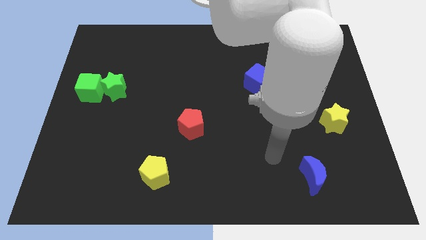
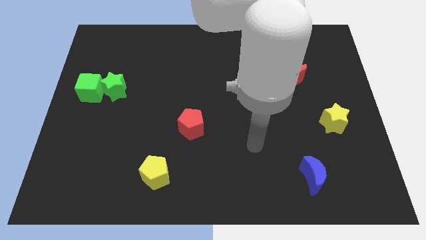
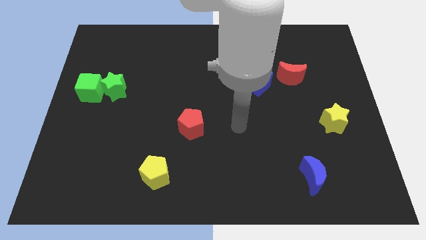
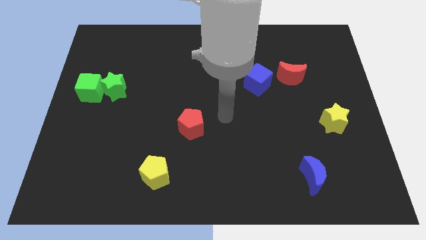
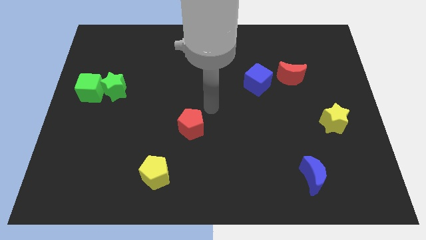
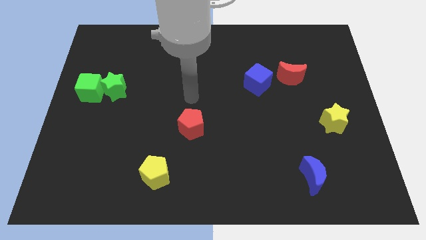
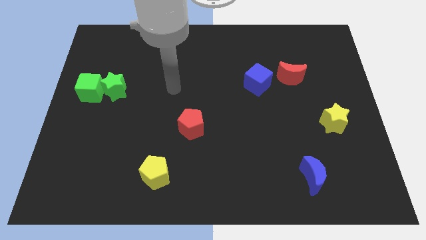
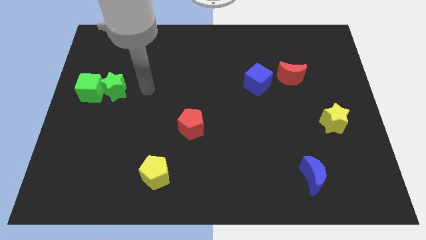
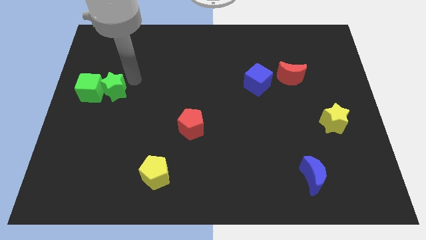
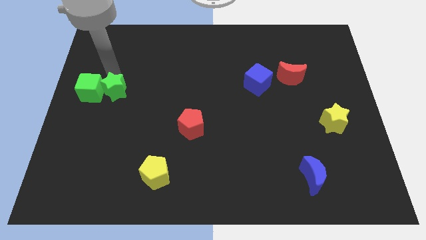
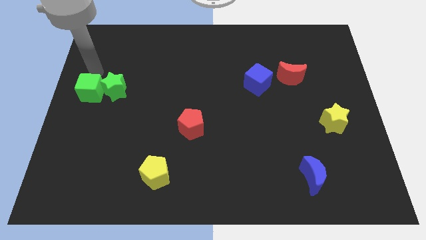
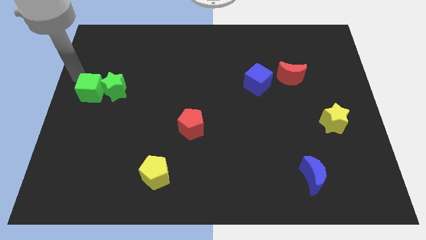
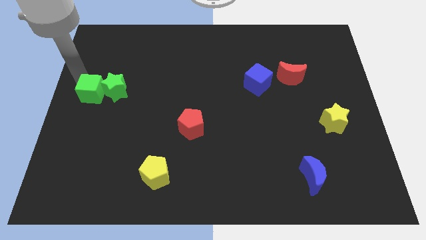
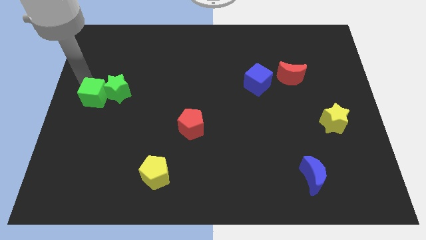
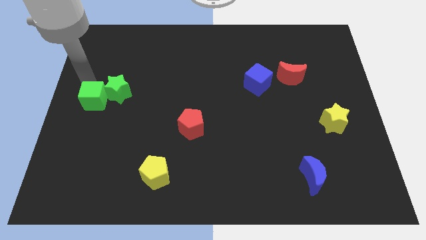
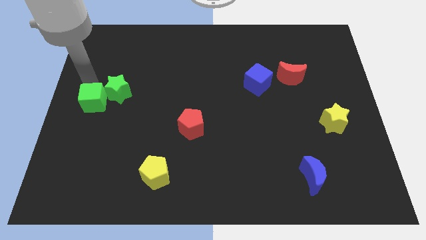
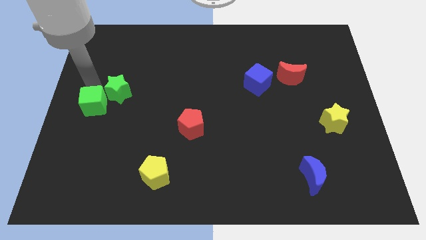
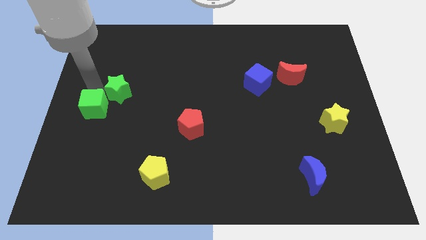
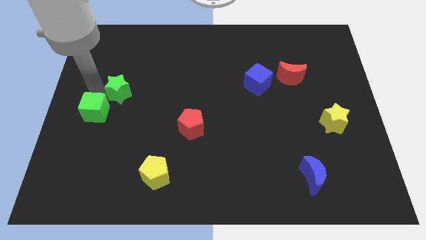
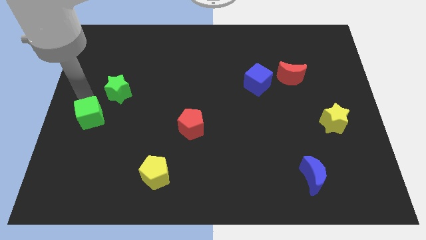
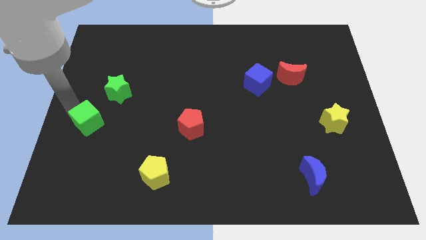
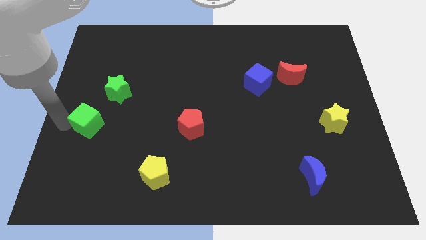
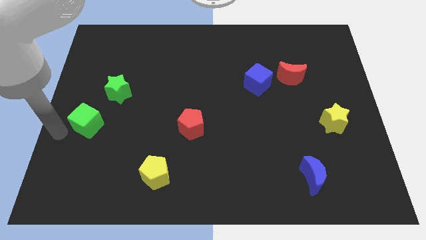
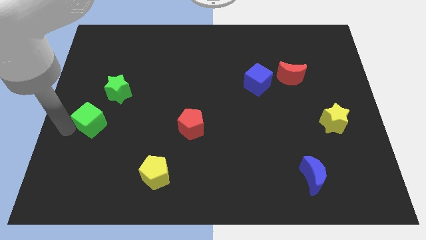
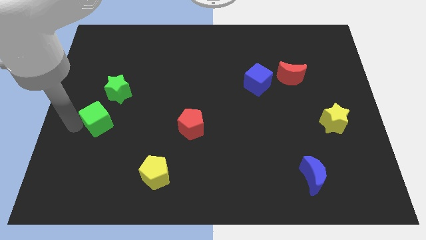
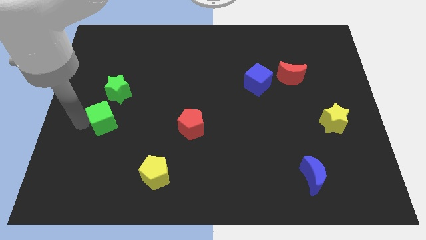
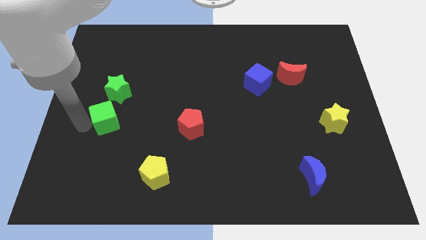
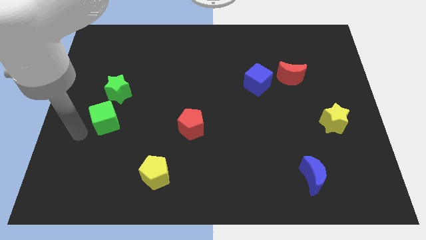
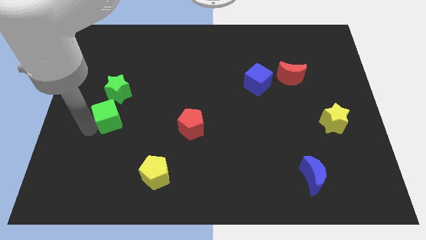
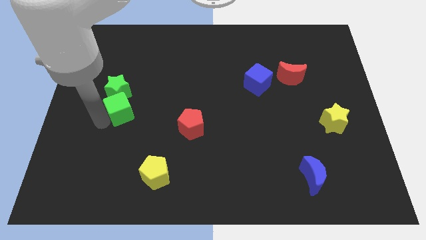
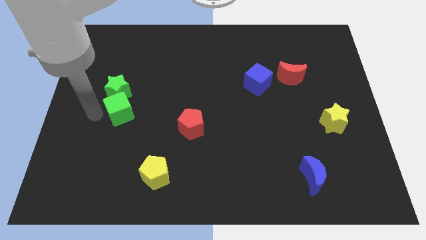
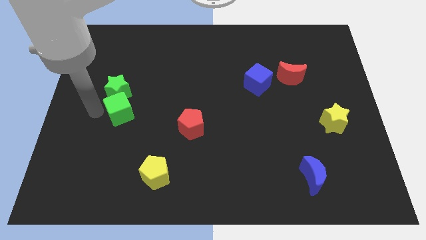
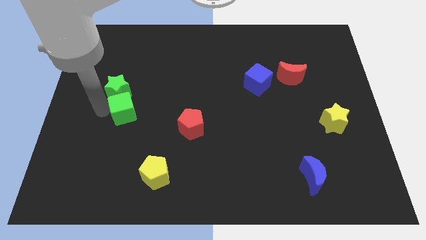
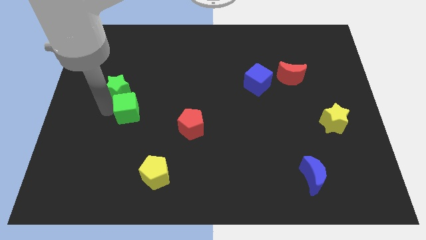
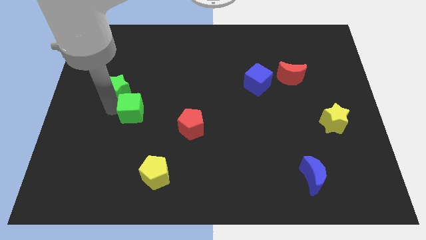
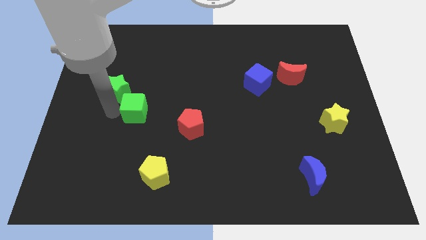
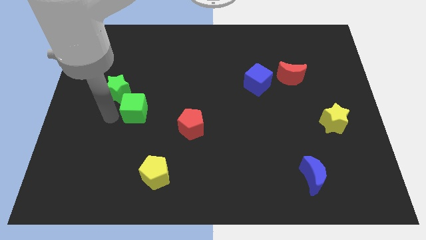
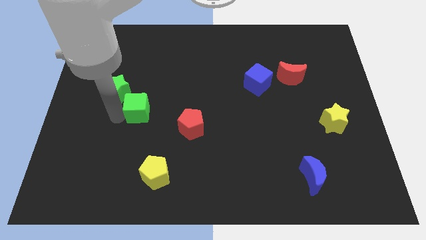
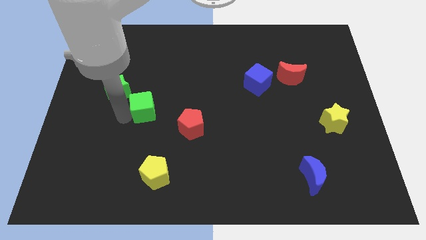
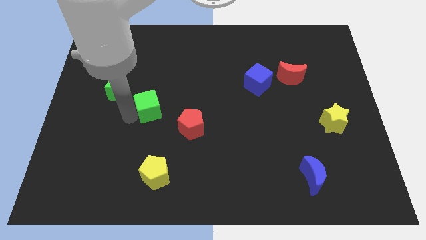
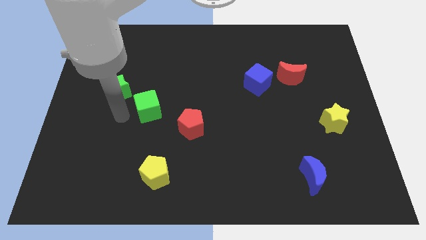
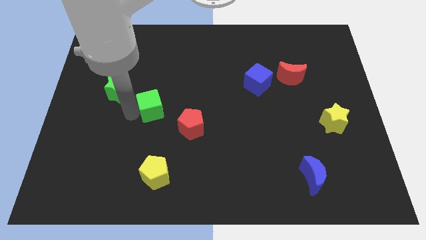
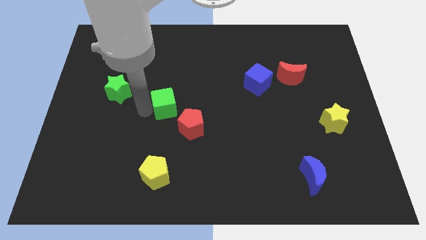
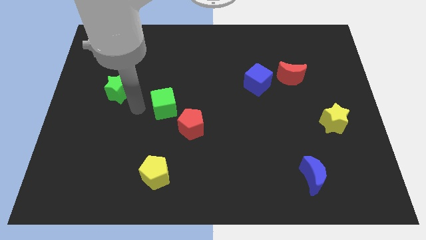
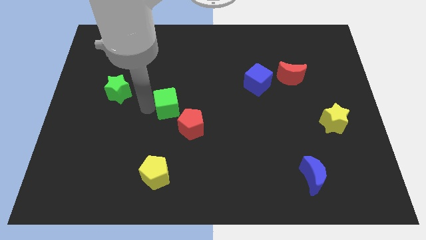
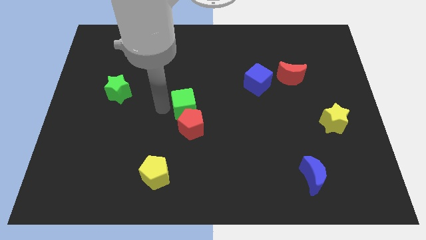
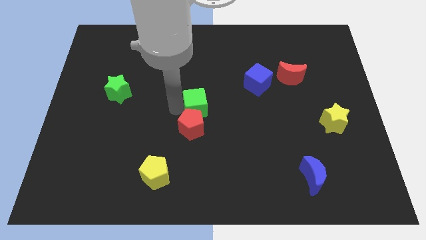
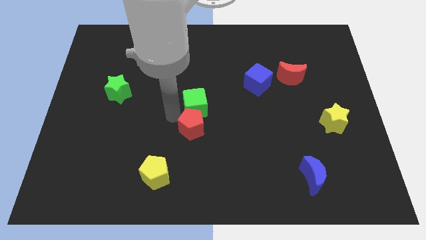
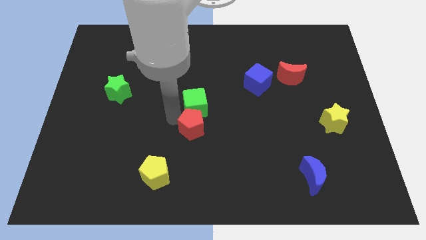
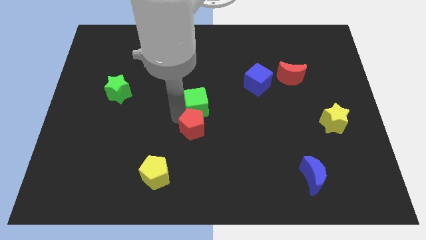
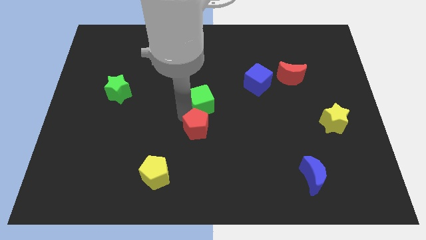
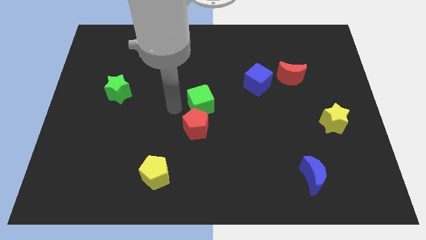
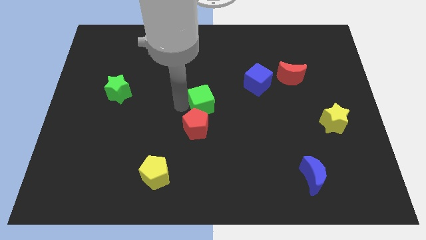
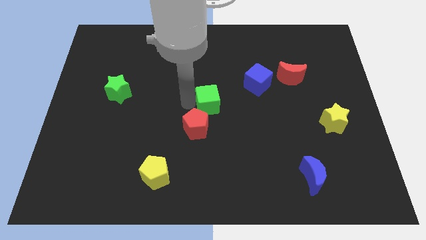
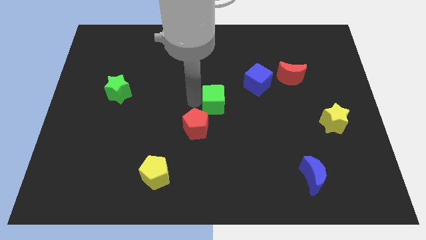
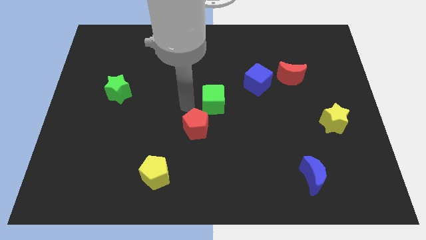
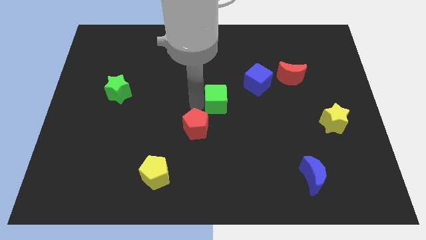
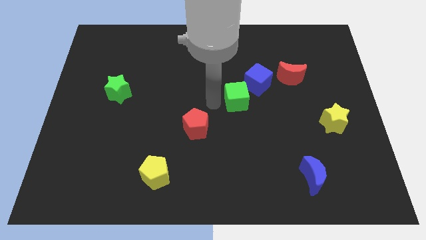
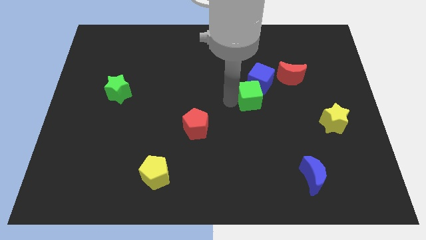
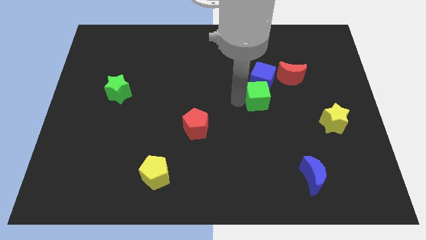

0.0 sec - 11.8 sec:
move the green cube diagonally down and to the left of the red moon

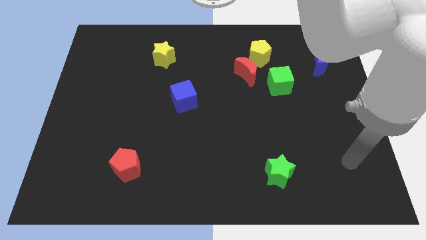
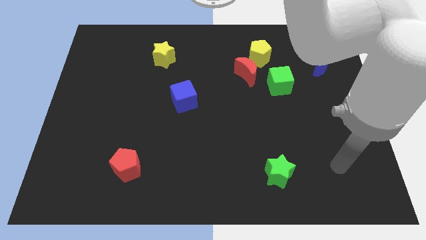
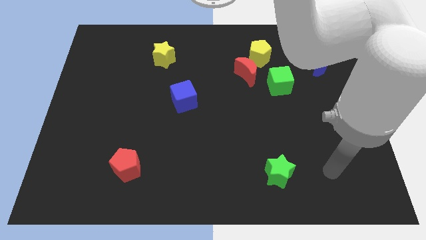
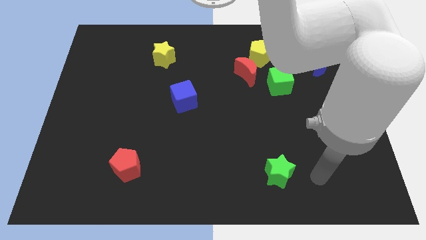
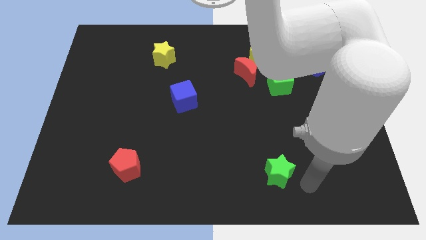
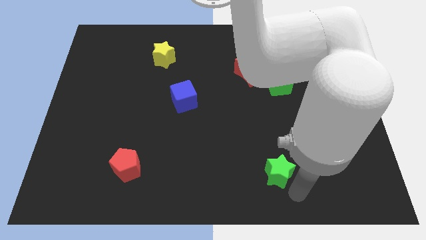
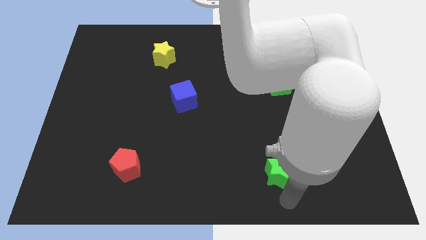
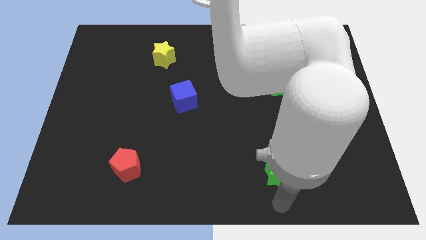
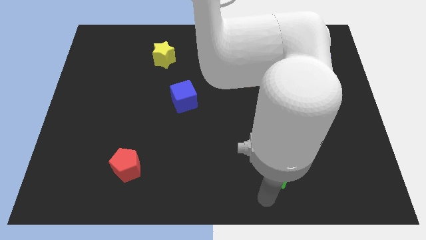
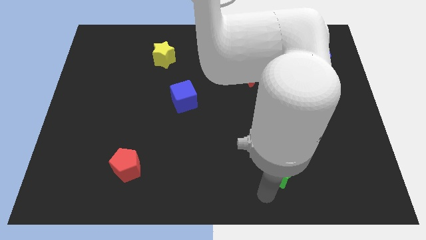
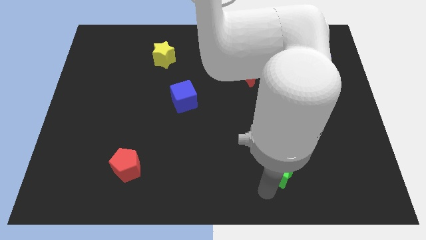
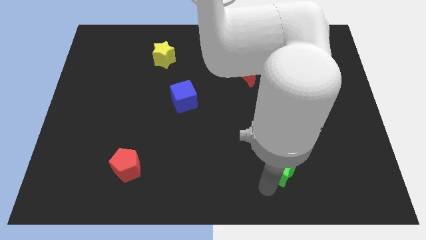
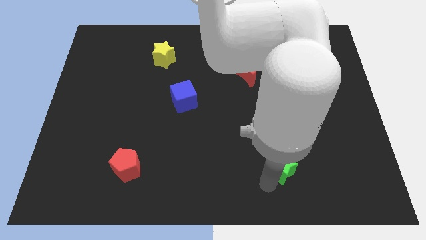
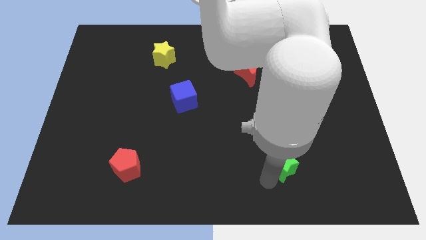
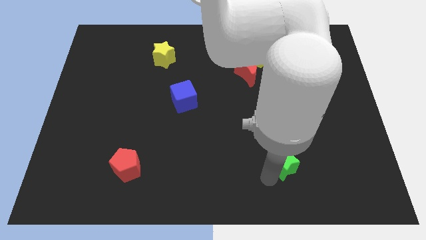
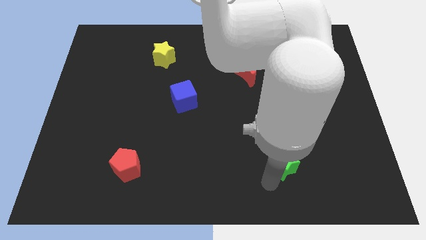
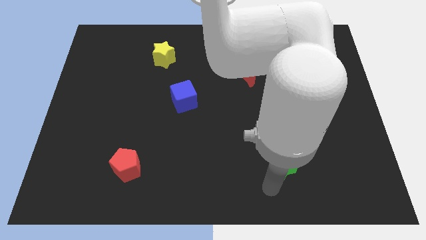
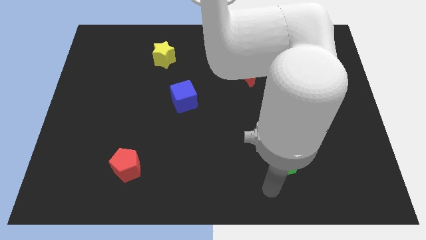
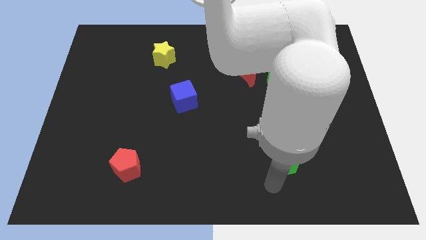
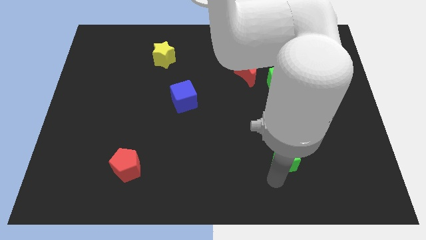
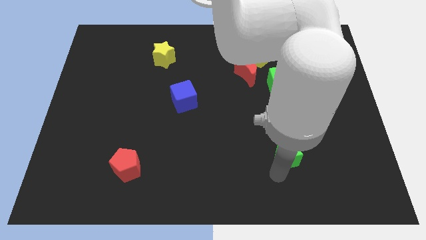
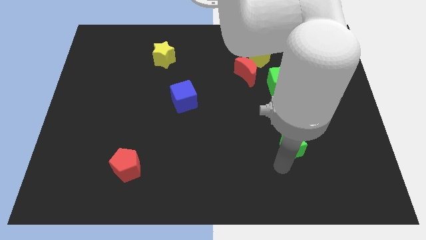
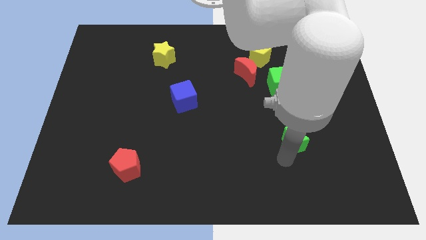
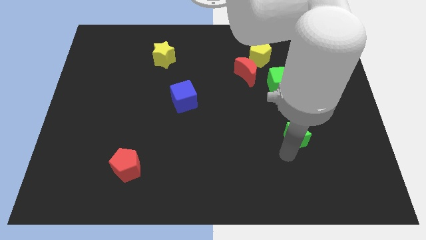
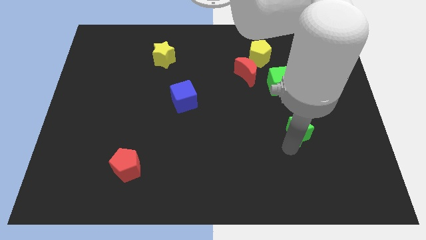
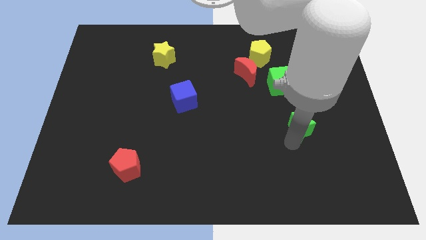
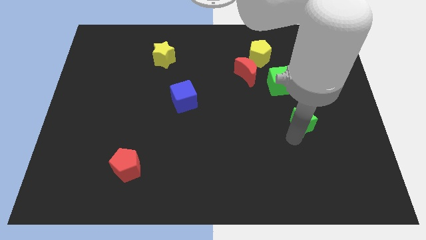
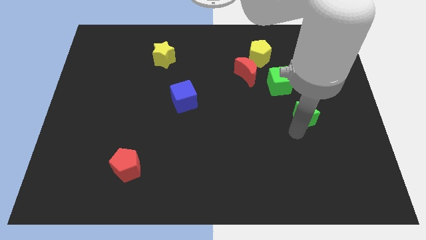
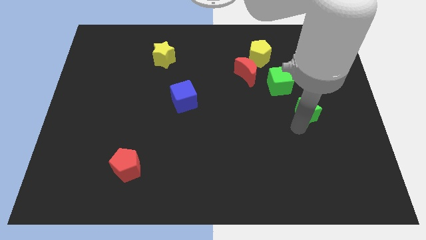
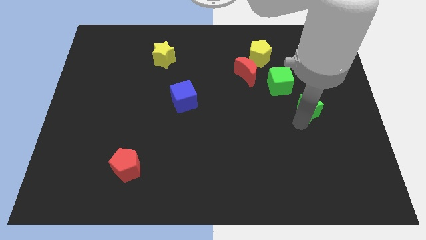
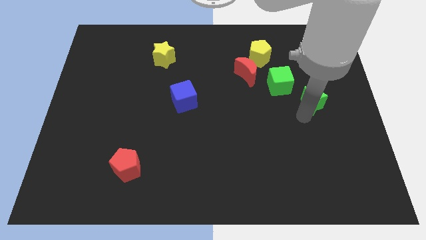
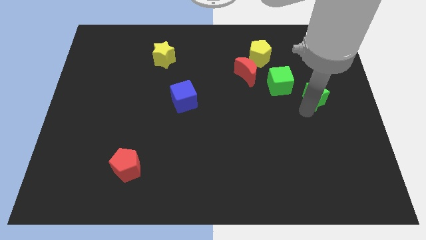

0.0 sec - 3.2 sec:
push the green star just right of the green cube
